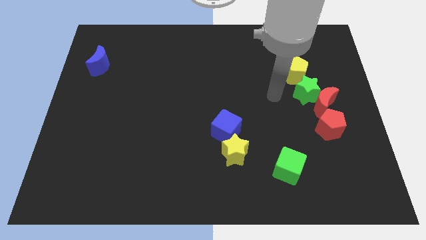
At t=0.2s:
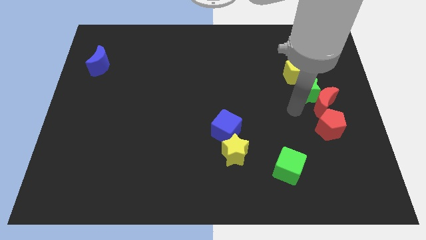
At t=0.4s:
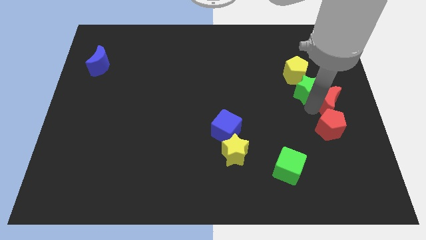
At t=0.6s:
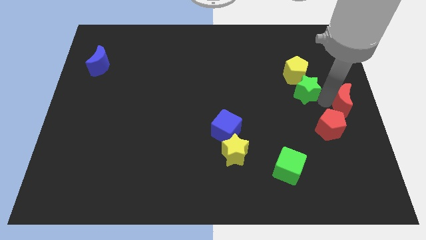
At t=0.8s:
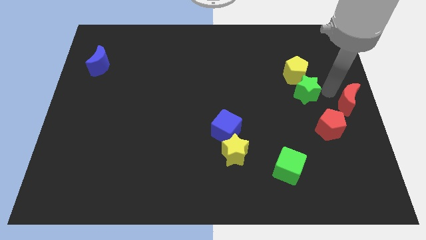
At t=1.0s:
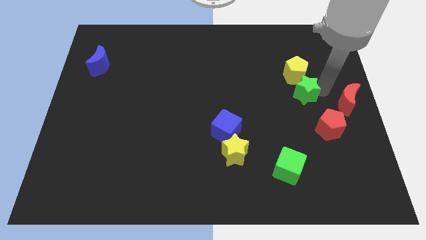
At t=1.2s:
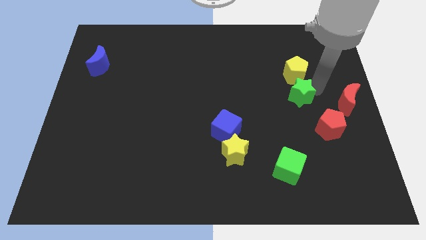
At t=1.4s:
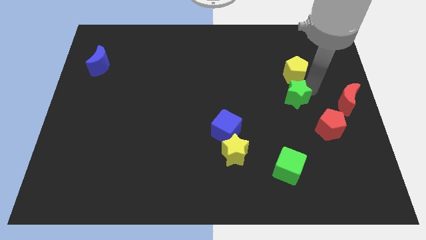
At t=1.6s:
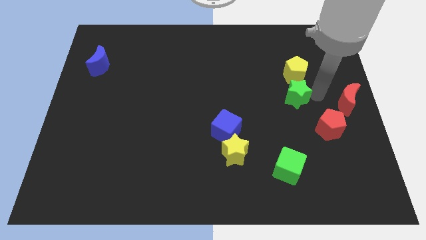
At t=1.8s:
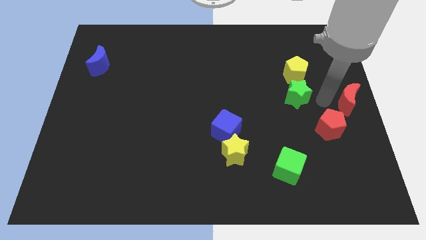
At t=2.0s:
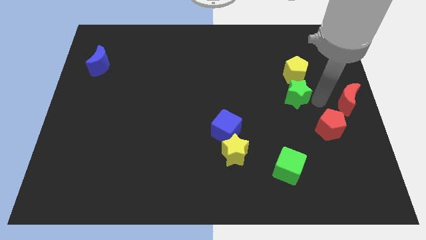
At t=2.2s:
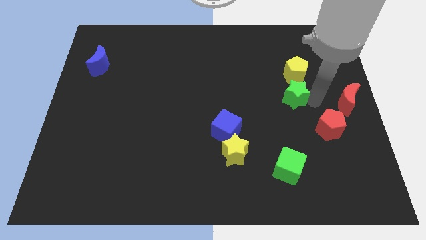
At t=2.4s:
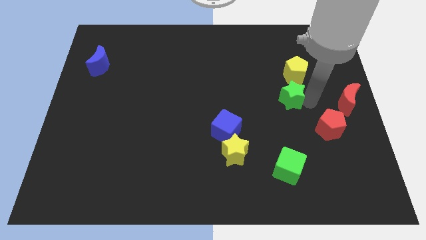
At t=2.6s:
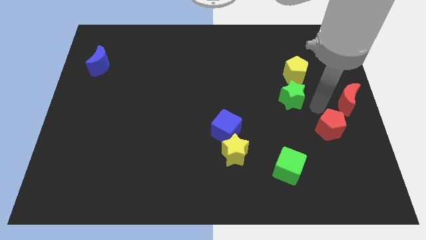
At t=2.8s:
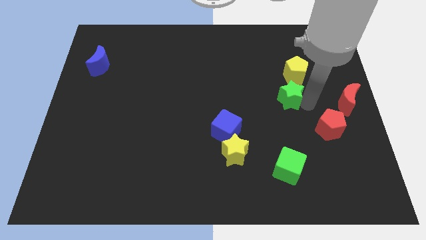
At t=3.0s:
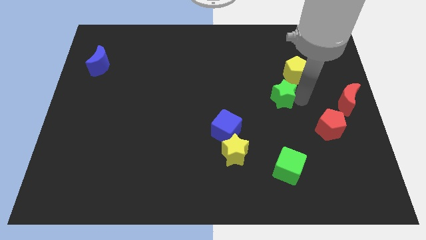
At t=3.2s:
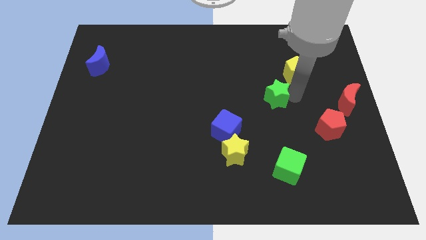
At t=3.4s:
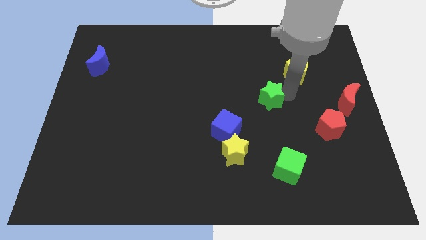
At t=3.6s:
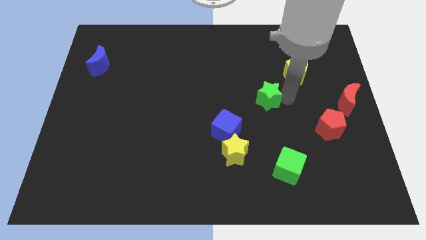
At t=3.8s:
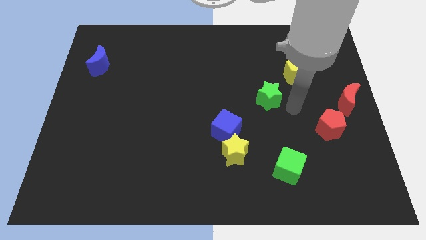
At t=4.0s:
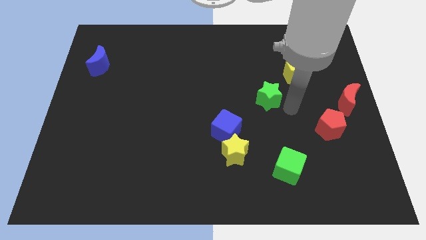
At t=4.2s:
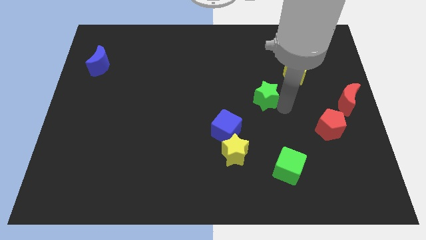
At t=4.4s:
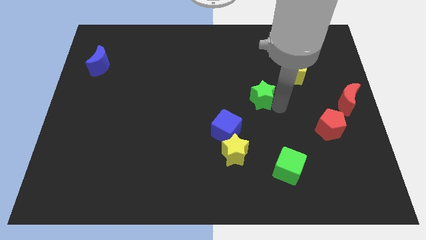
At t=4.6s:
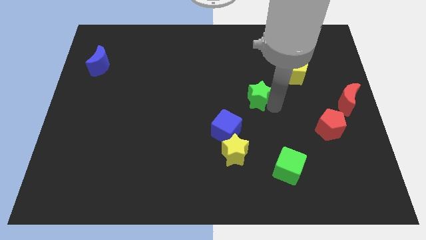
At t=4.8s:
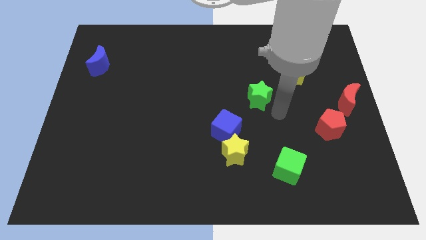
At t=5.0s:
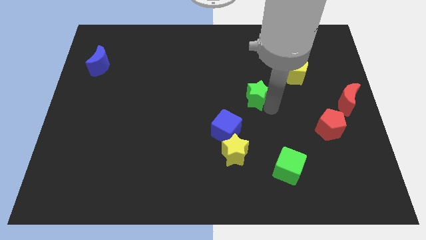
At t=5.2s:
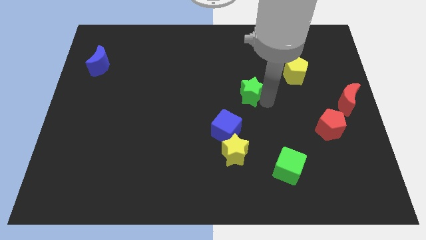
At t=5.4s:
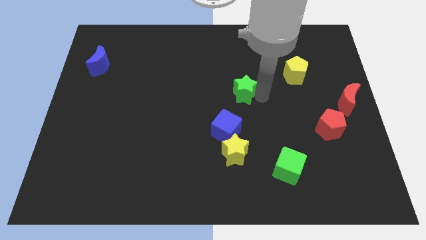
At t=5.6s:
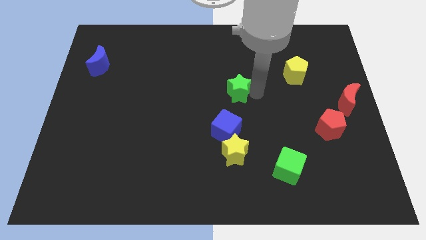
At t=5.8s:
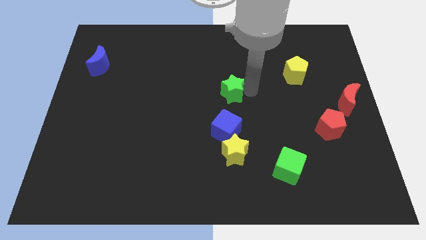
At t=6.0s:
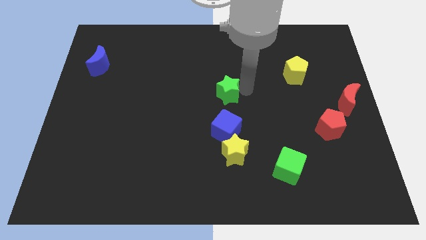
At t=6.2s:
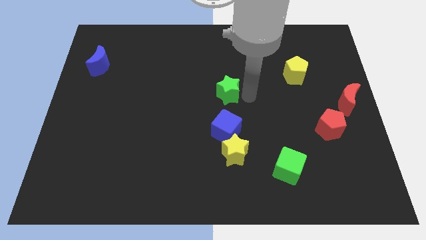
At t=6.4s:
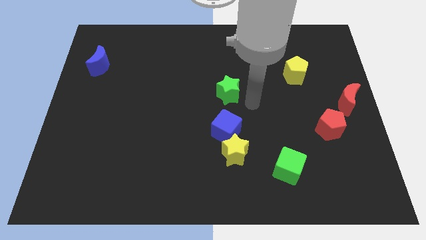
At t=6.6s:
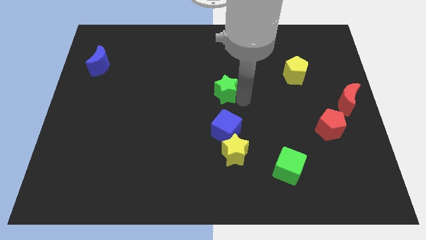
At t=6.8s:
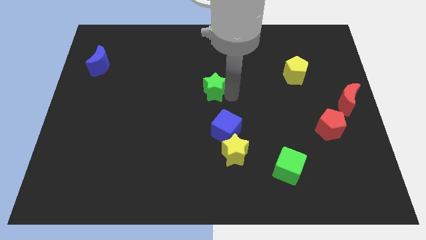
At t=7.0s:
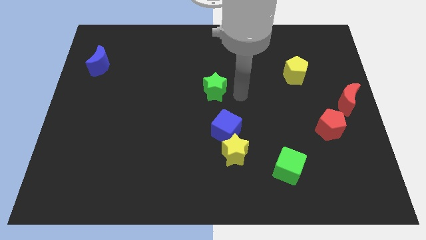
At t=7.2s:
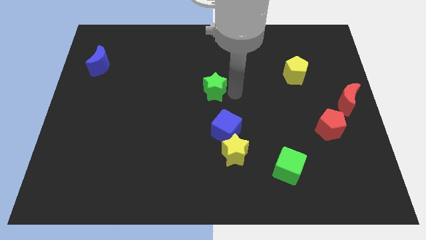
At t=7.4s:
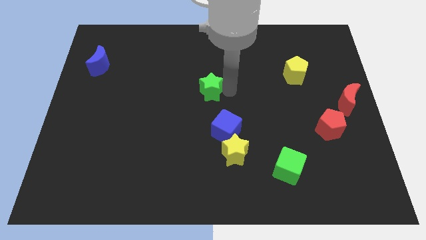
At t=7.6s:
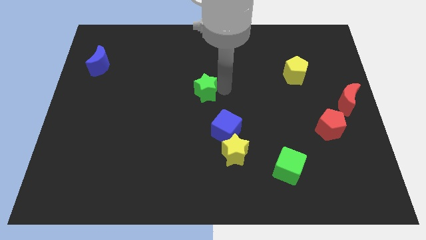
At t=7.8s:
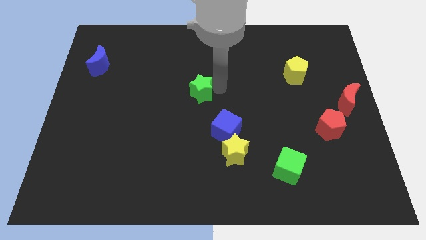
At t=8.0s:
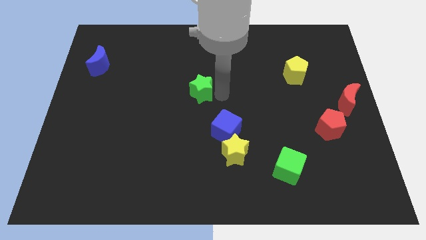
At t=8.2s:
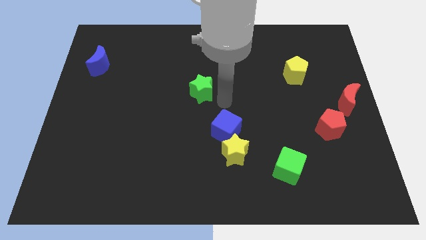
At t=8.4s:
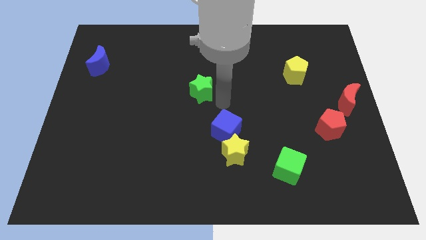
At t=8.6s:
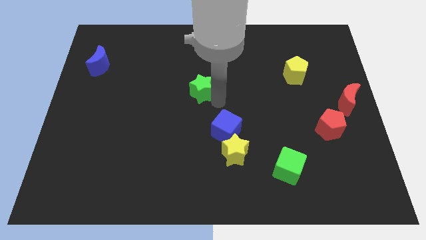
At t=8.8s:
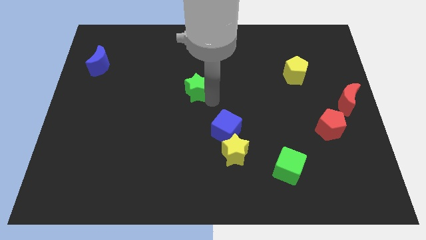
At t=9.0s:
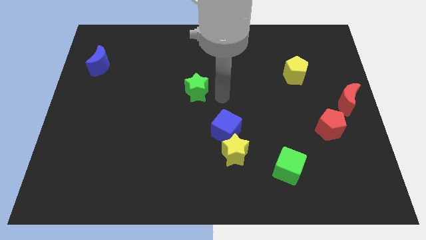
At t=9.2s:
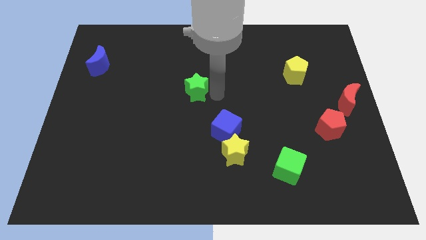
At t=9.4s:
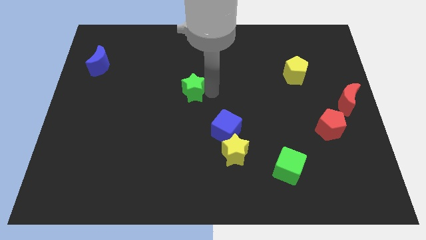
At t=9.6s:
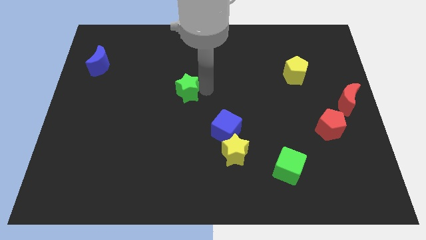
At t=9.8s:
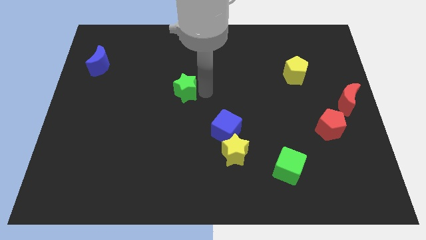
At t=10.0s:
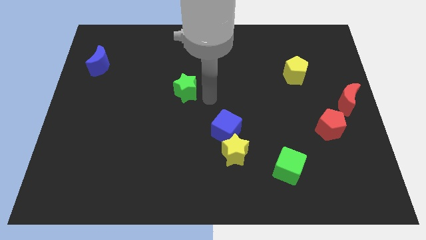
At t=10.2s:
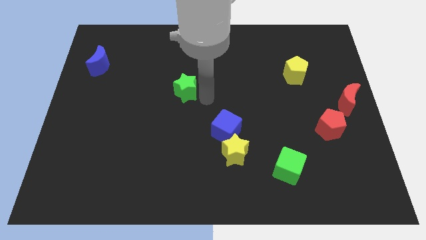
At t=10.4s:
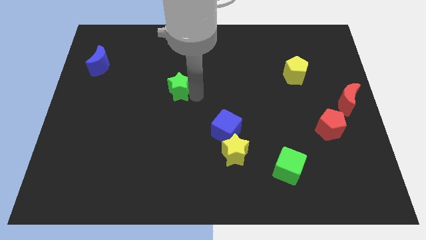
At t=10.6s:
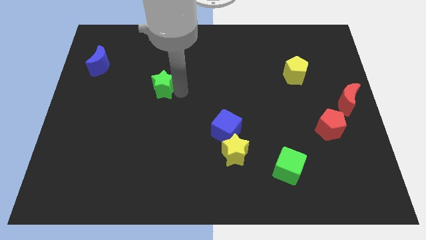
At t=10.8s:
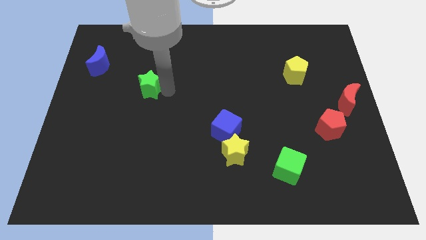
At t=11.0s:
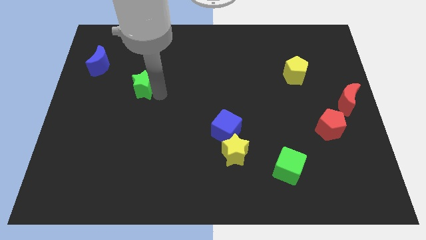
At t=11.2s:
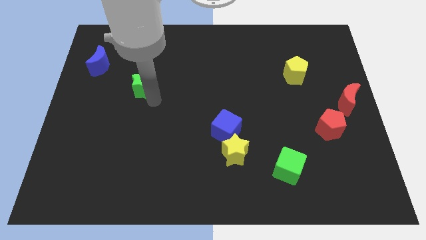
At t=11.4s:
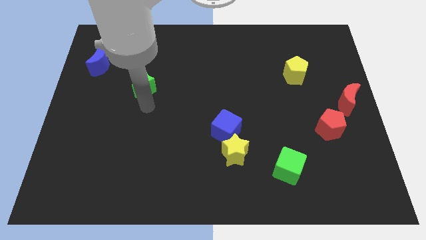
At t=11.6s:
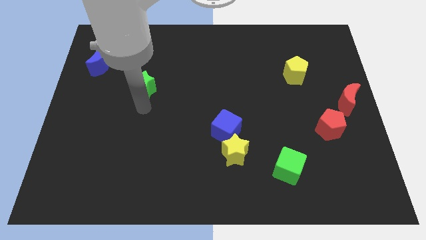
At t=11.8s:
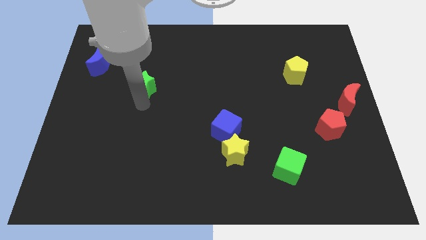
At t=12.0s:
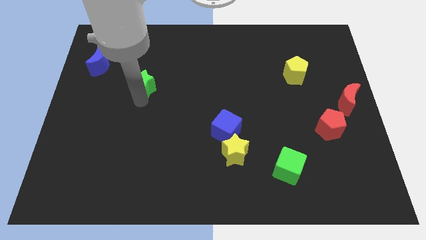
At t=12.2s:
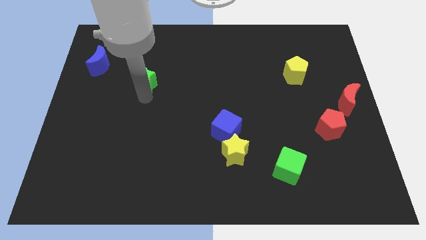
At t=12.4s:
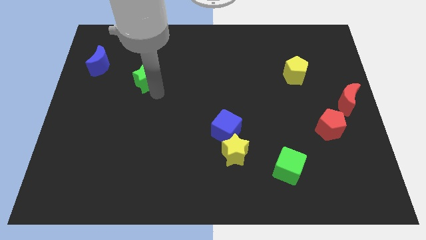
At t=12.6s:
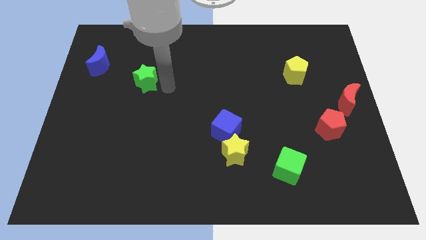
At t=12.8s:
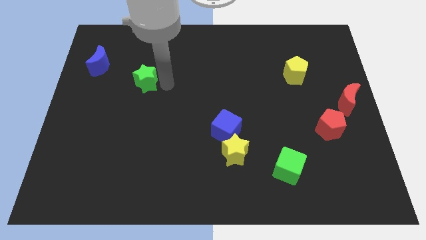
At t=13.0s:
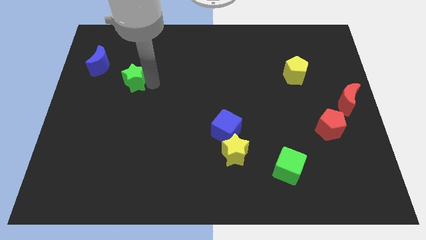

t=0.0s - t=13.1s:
slide the green star diagonally down and to the right of the blue moon

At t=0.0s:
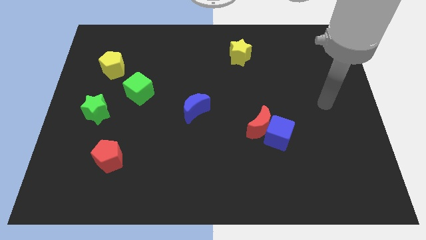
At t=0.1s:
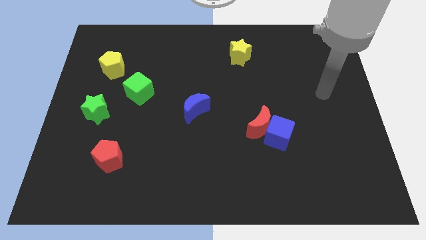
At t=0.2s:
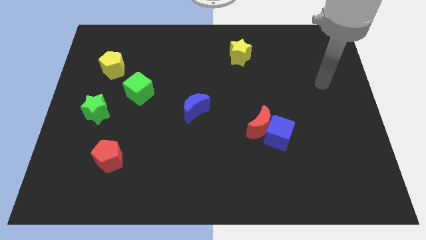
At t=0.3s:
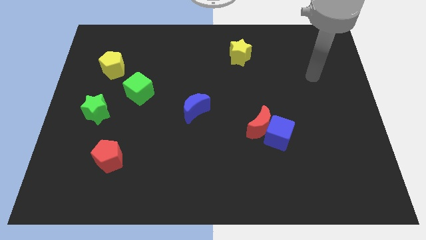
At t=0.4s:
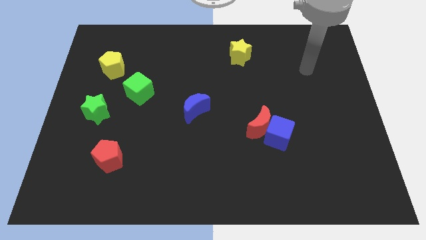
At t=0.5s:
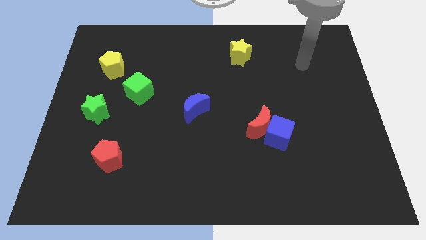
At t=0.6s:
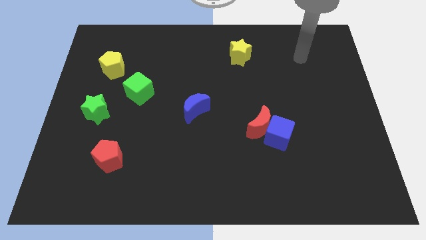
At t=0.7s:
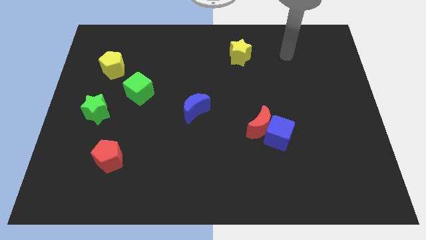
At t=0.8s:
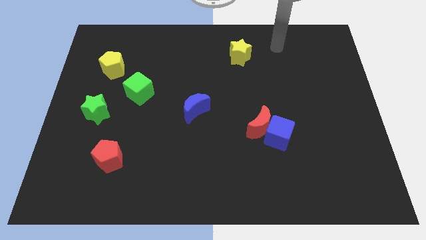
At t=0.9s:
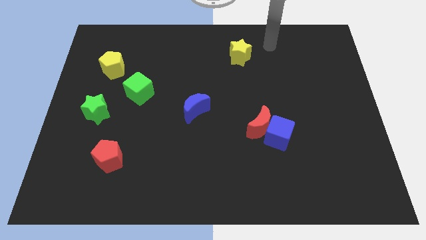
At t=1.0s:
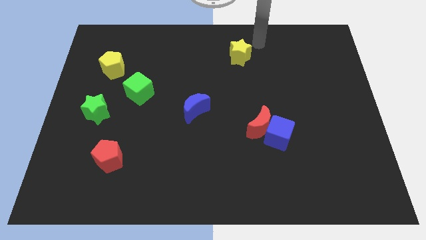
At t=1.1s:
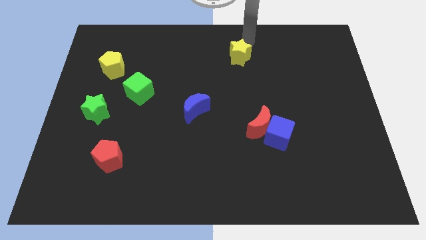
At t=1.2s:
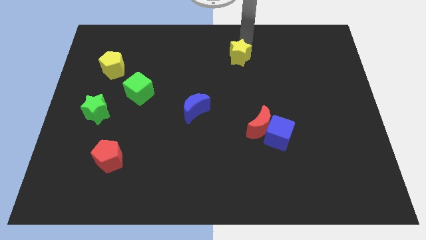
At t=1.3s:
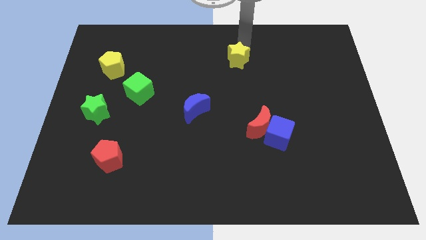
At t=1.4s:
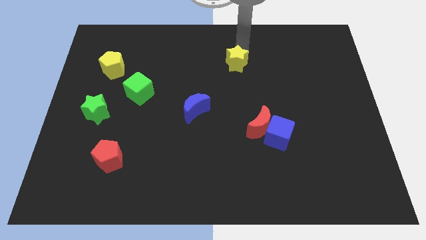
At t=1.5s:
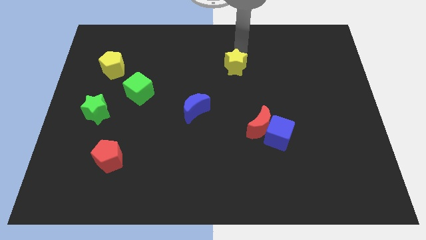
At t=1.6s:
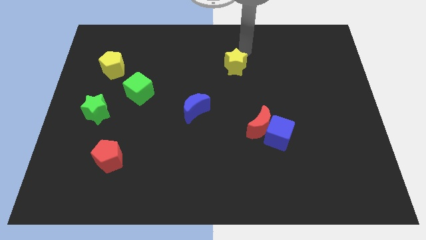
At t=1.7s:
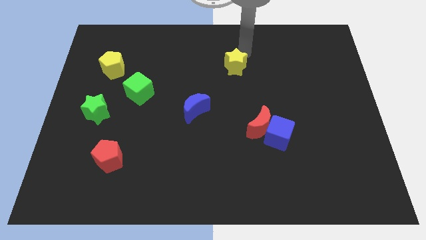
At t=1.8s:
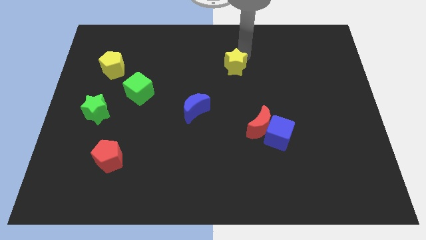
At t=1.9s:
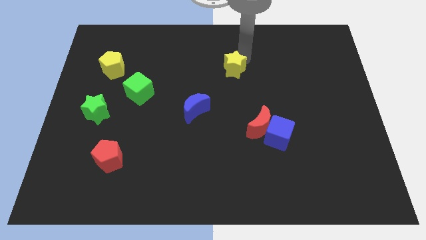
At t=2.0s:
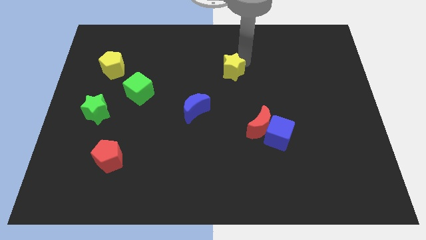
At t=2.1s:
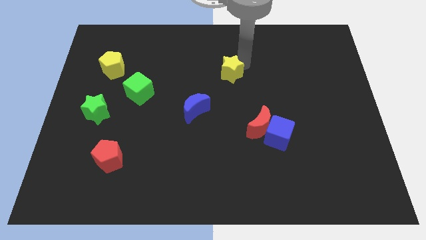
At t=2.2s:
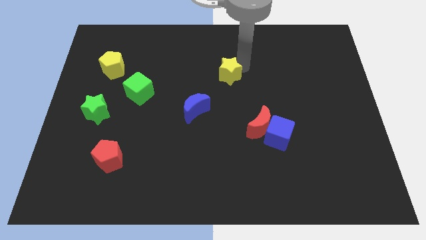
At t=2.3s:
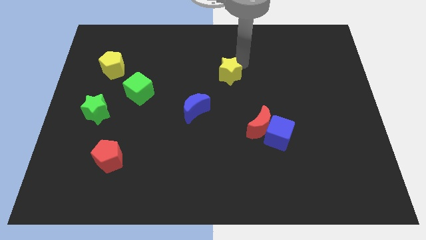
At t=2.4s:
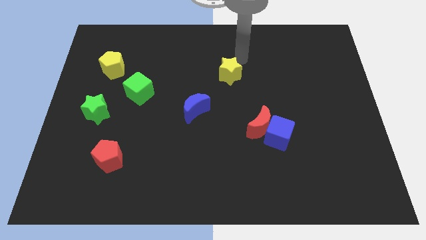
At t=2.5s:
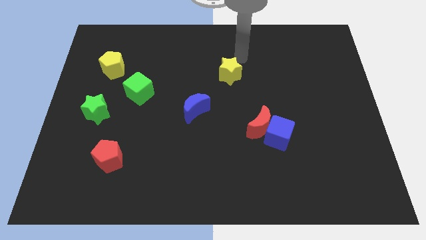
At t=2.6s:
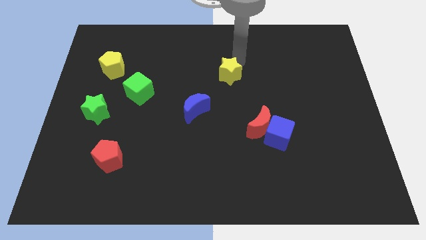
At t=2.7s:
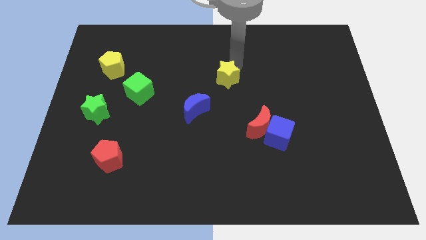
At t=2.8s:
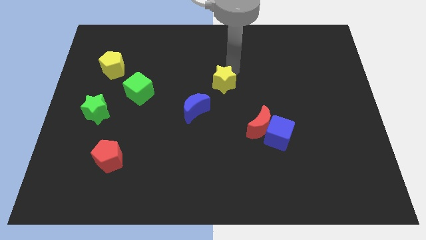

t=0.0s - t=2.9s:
push the yellow star to the top right side of the blue moon
